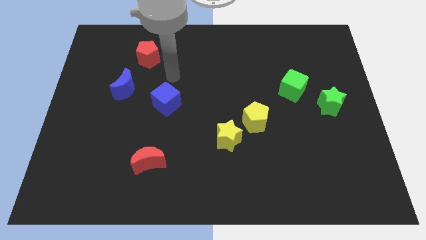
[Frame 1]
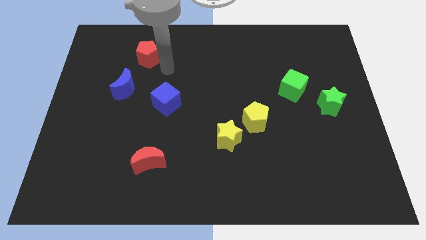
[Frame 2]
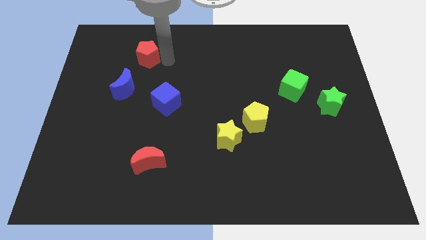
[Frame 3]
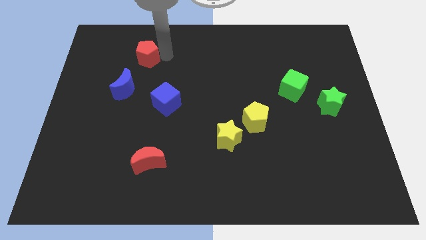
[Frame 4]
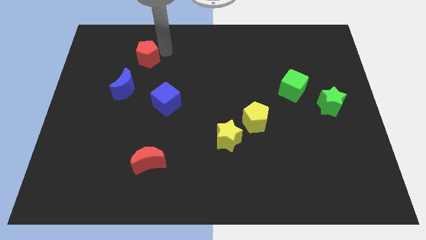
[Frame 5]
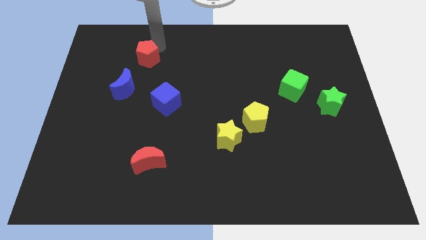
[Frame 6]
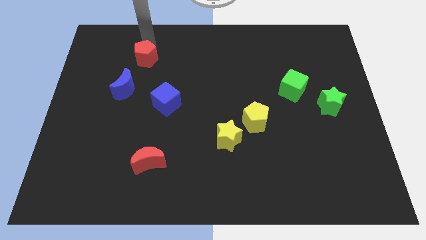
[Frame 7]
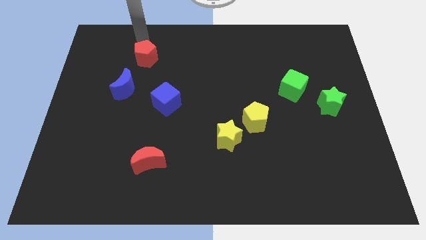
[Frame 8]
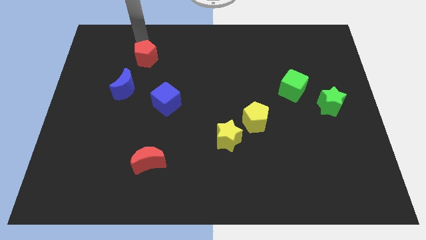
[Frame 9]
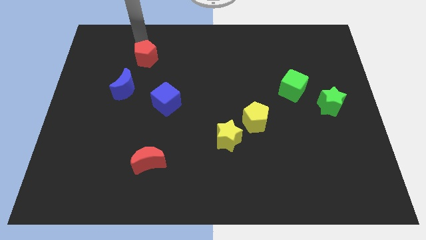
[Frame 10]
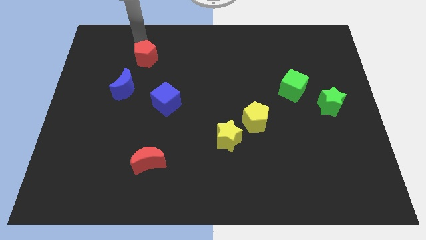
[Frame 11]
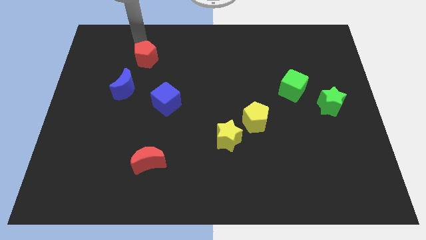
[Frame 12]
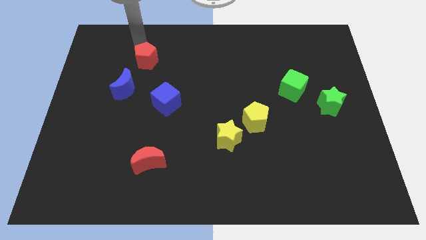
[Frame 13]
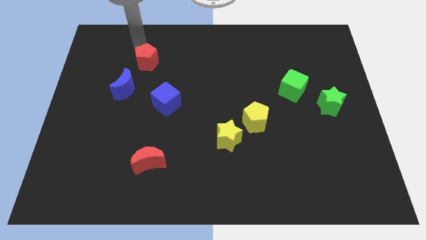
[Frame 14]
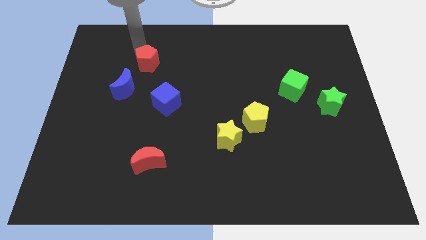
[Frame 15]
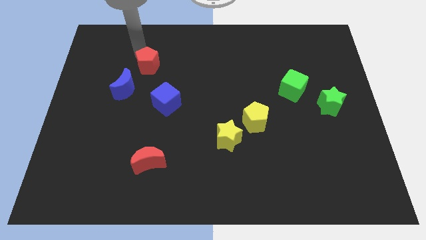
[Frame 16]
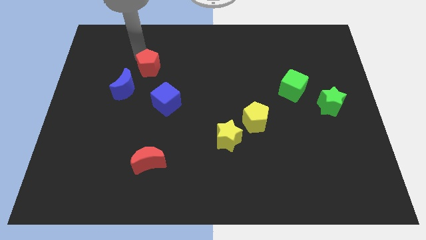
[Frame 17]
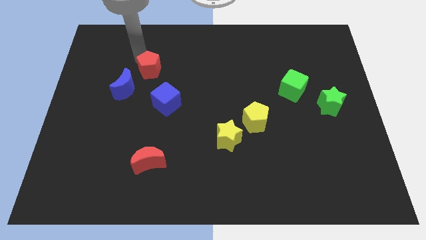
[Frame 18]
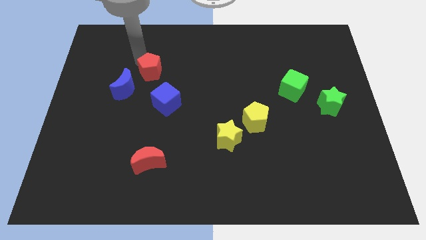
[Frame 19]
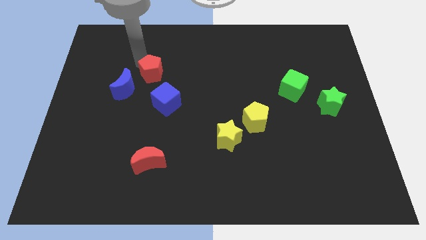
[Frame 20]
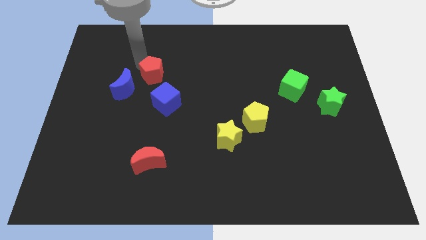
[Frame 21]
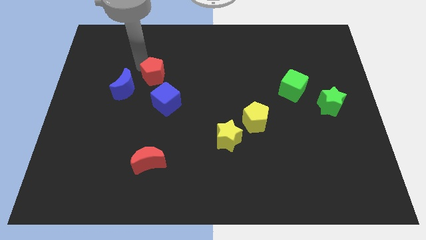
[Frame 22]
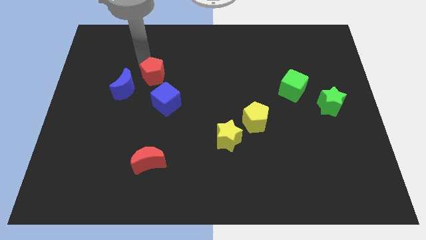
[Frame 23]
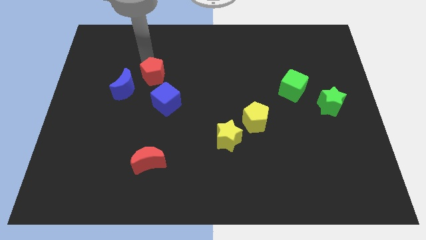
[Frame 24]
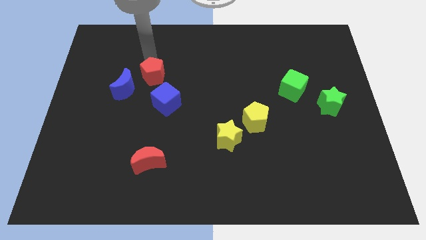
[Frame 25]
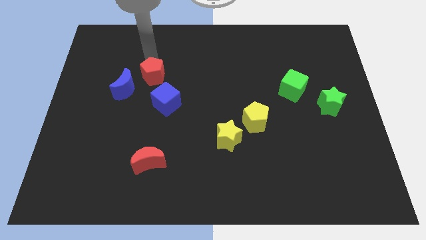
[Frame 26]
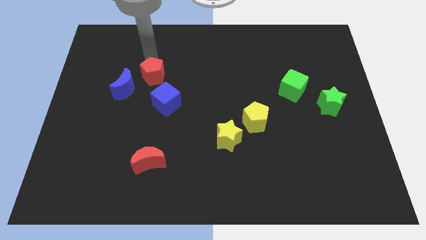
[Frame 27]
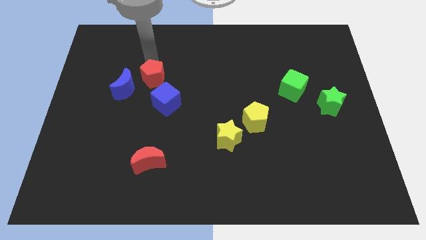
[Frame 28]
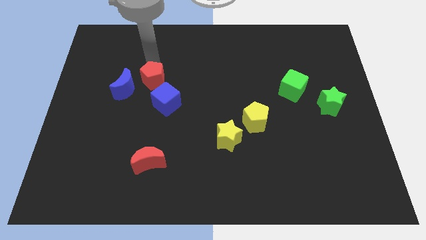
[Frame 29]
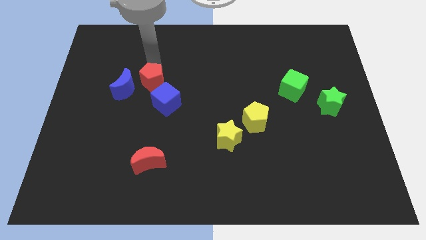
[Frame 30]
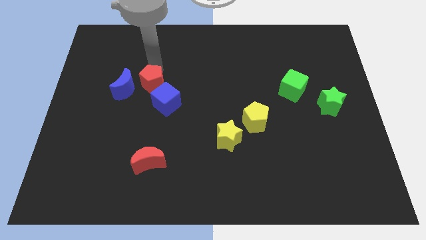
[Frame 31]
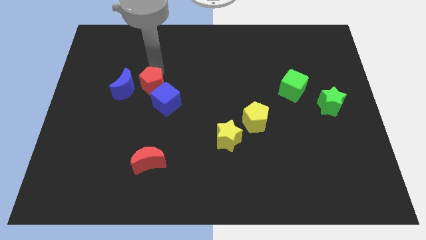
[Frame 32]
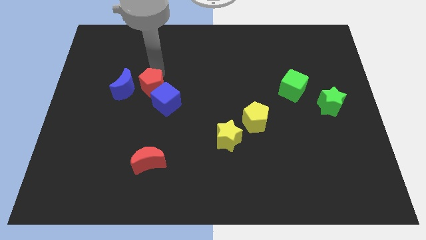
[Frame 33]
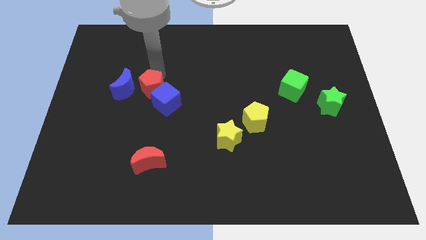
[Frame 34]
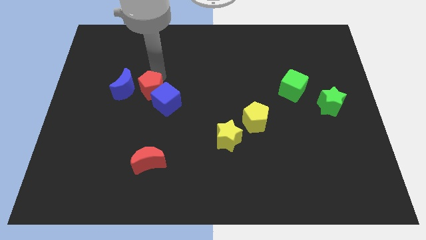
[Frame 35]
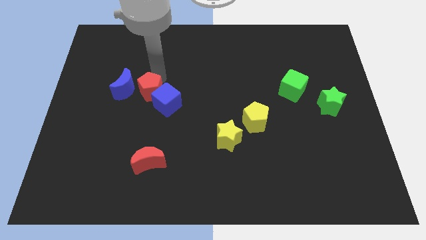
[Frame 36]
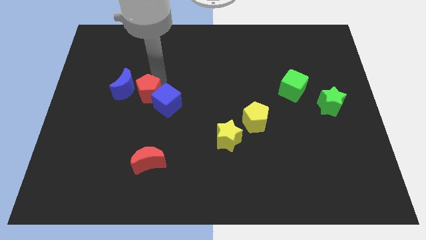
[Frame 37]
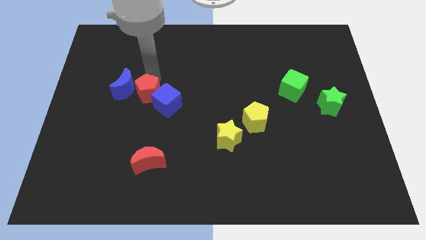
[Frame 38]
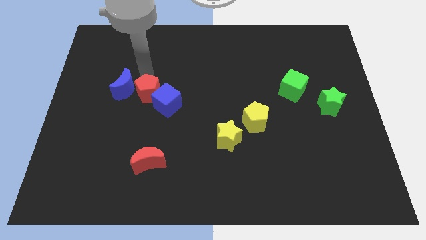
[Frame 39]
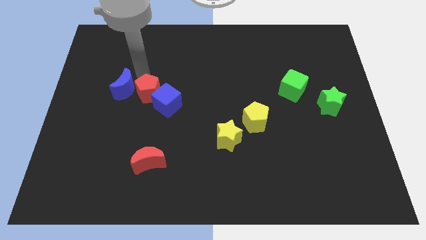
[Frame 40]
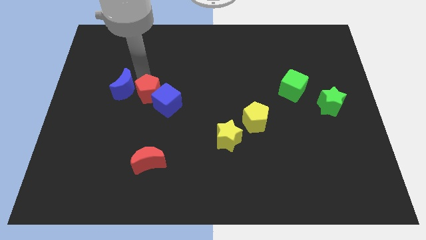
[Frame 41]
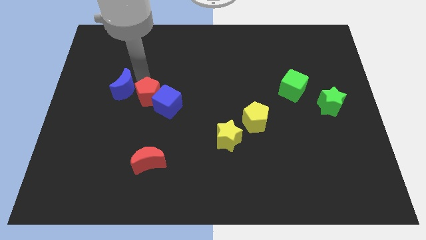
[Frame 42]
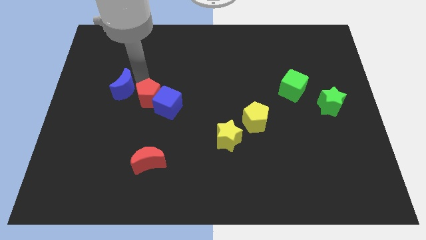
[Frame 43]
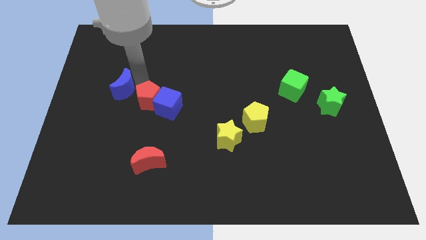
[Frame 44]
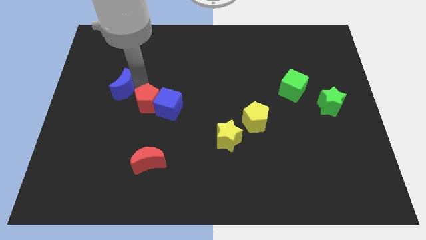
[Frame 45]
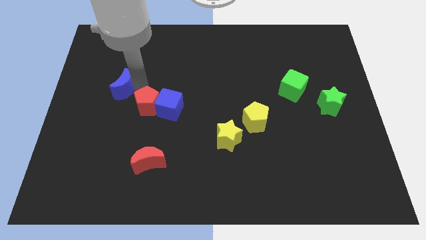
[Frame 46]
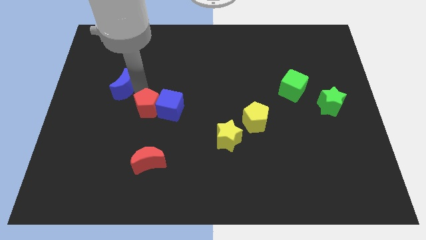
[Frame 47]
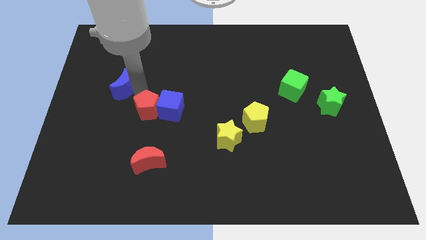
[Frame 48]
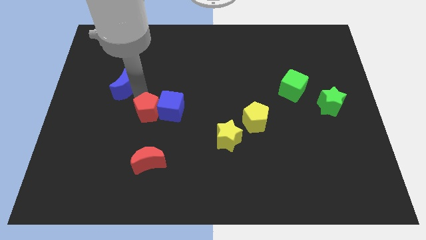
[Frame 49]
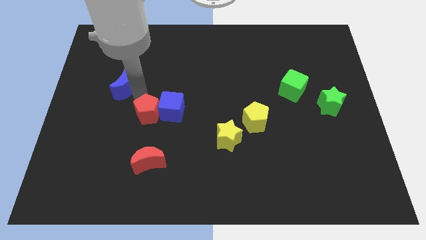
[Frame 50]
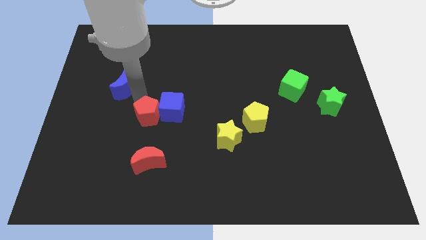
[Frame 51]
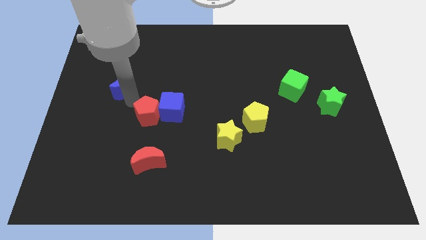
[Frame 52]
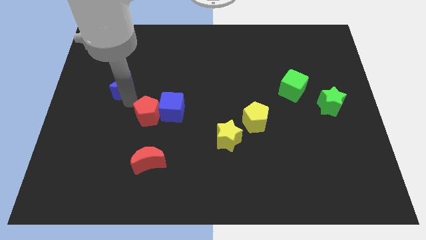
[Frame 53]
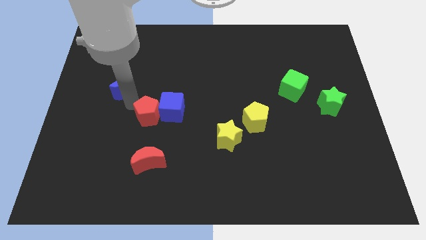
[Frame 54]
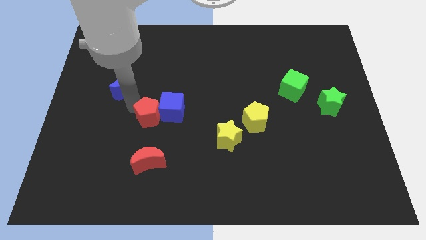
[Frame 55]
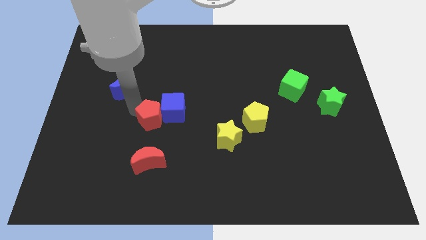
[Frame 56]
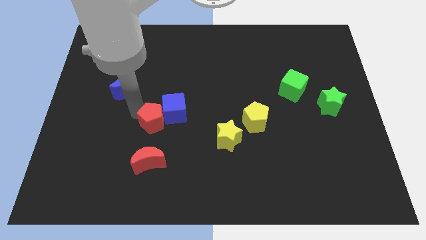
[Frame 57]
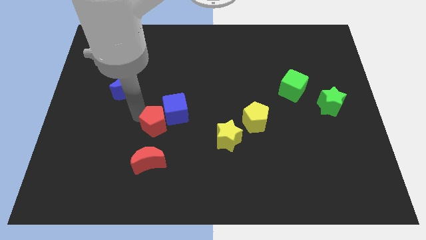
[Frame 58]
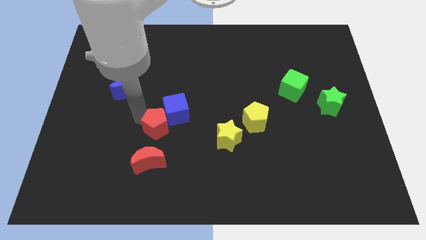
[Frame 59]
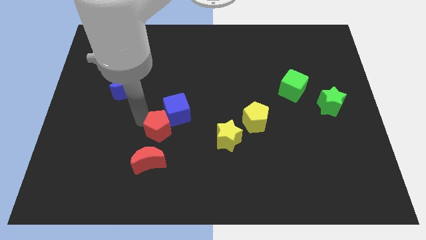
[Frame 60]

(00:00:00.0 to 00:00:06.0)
push the red pentagon left of the yellow star

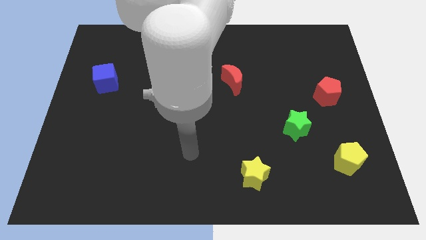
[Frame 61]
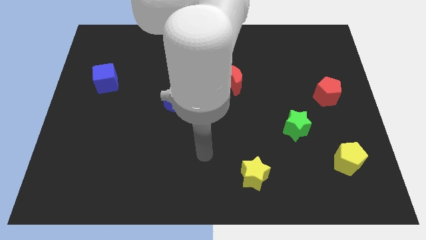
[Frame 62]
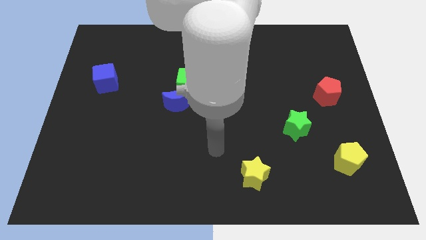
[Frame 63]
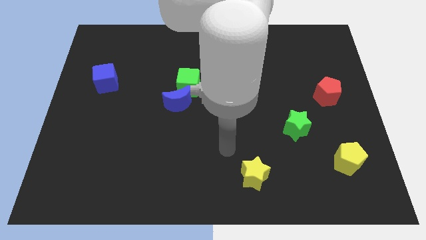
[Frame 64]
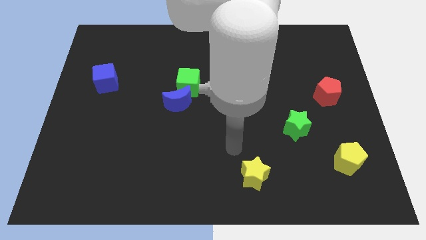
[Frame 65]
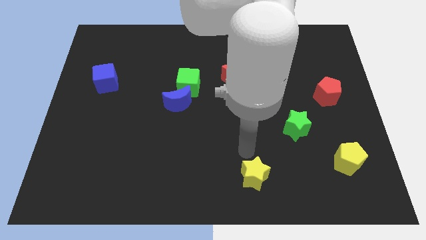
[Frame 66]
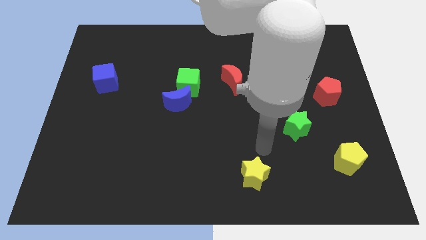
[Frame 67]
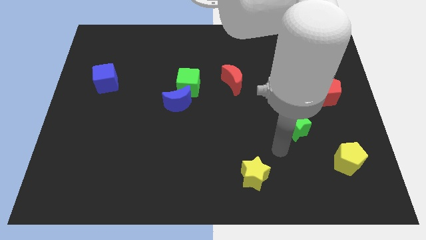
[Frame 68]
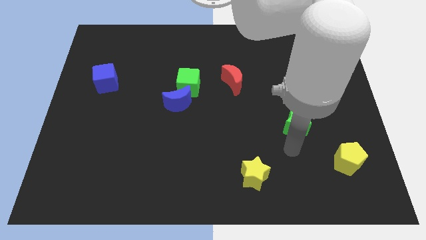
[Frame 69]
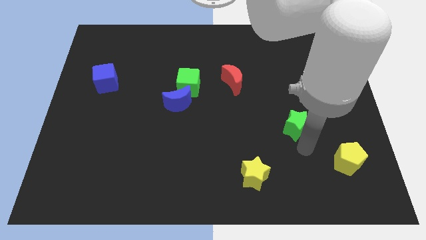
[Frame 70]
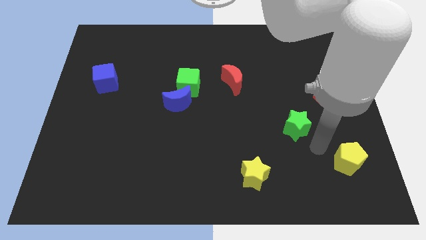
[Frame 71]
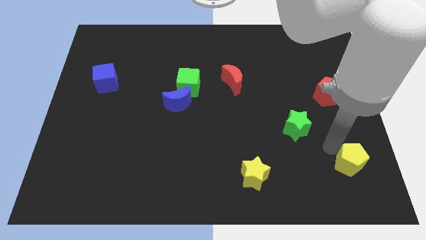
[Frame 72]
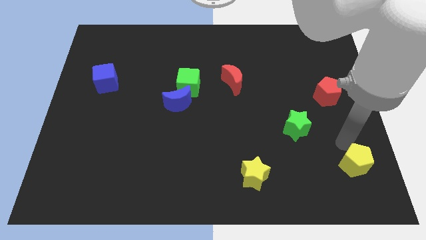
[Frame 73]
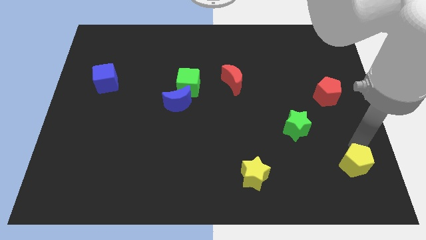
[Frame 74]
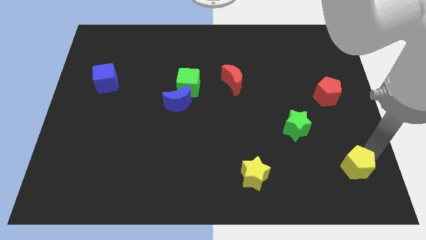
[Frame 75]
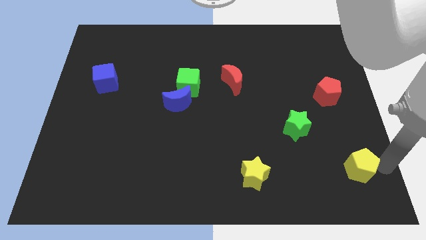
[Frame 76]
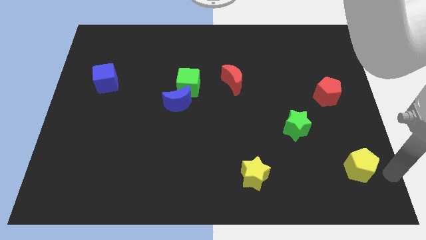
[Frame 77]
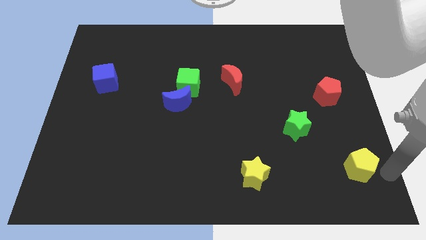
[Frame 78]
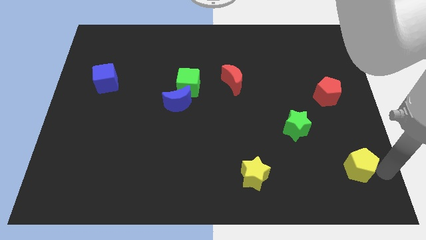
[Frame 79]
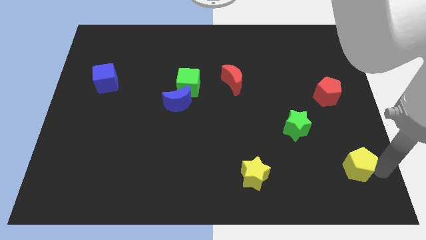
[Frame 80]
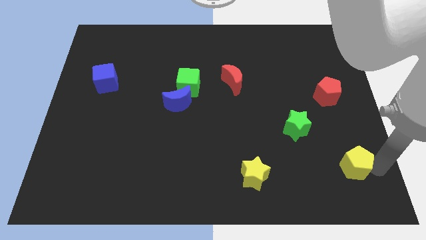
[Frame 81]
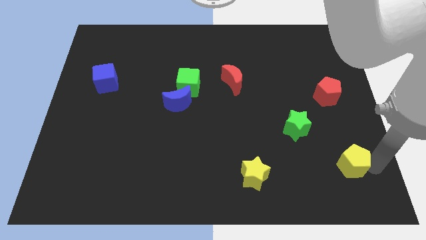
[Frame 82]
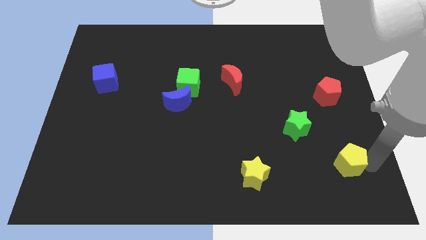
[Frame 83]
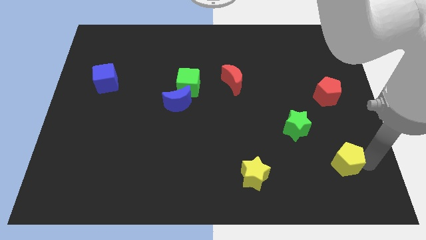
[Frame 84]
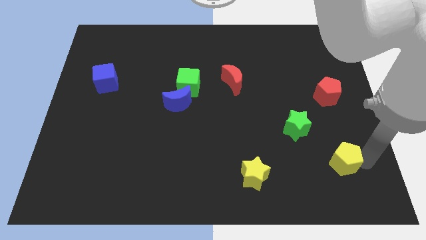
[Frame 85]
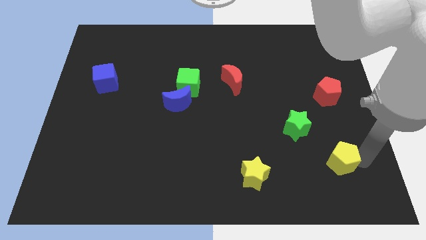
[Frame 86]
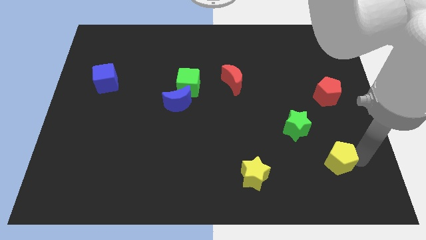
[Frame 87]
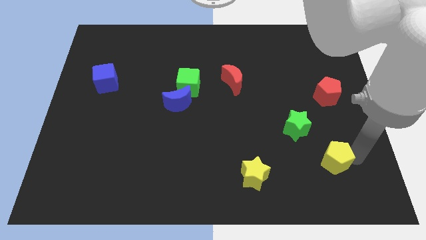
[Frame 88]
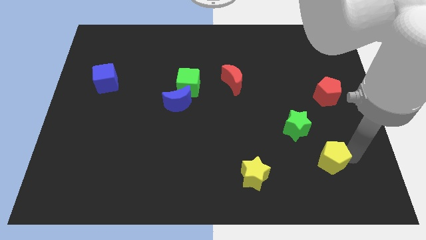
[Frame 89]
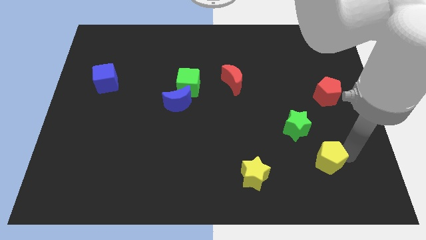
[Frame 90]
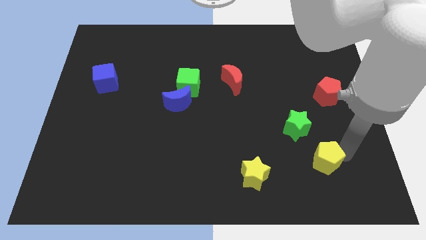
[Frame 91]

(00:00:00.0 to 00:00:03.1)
move the yellow pentagon below the green star
